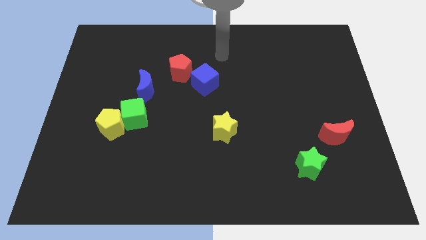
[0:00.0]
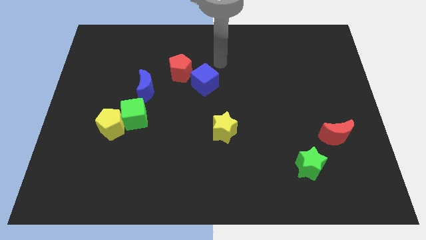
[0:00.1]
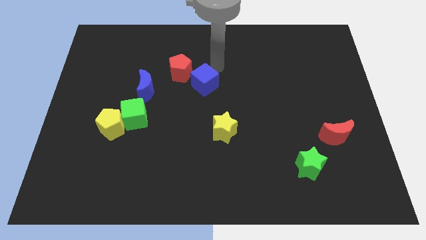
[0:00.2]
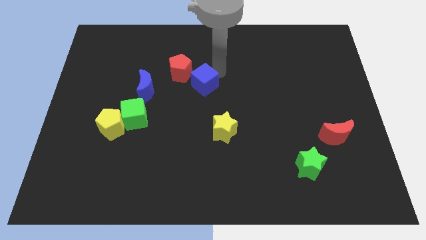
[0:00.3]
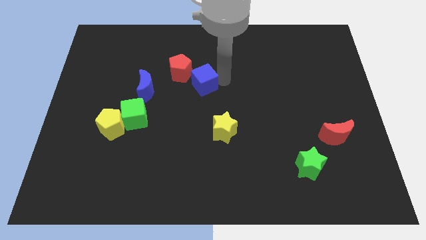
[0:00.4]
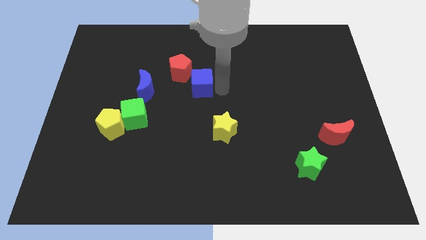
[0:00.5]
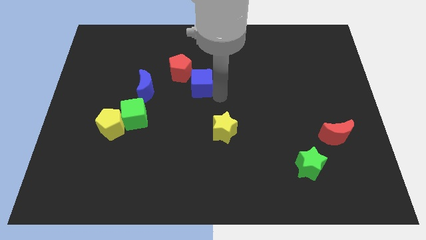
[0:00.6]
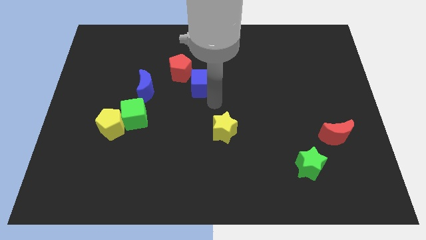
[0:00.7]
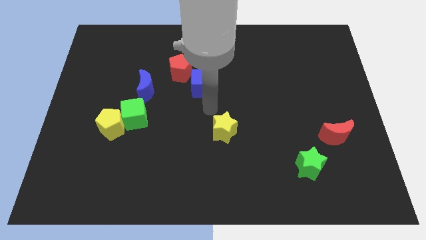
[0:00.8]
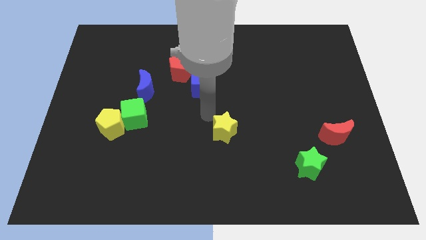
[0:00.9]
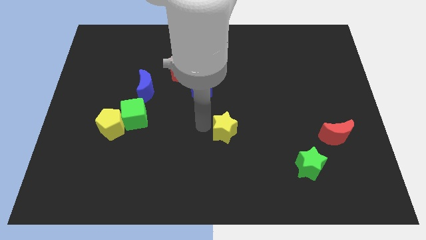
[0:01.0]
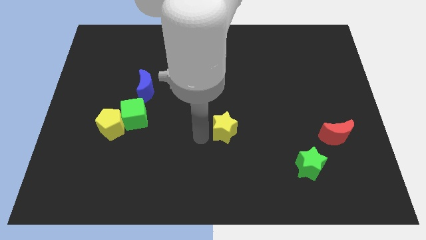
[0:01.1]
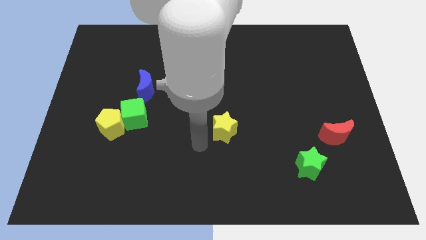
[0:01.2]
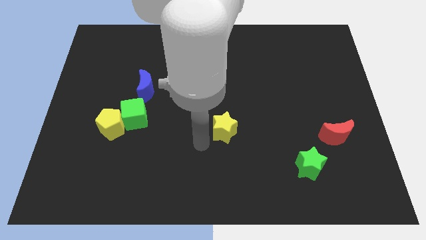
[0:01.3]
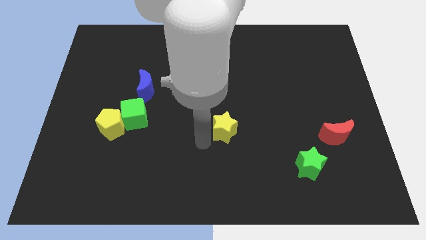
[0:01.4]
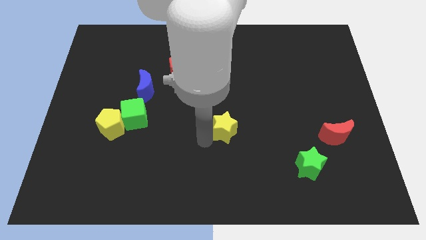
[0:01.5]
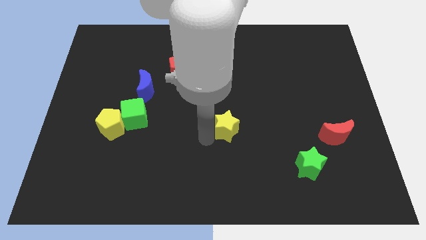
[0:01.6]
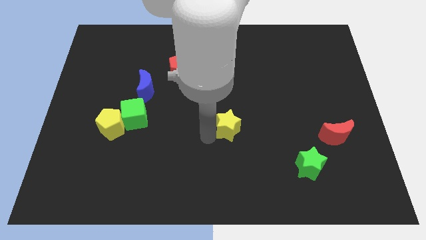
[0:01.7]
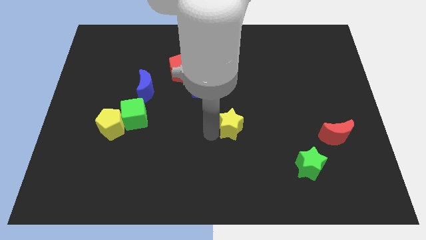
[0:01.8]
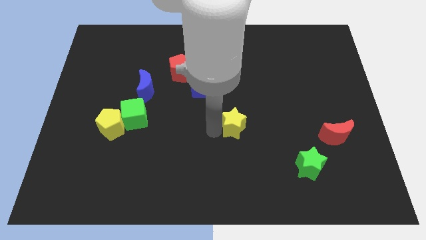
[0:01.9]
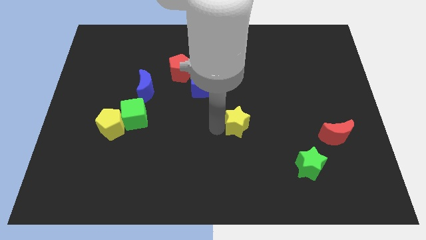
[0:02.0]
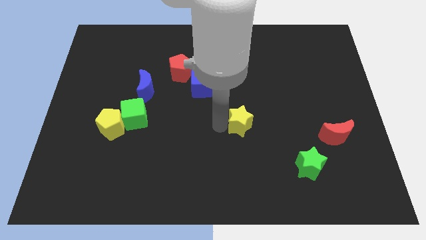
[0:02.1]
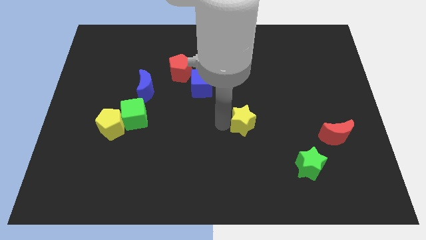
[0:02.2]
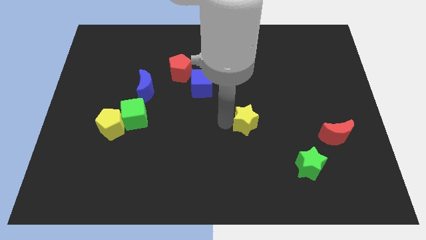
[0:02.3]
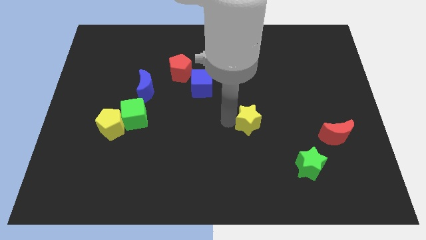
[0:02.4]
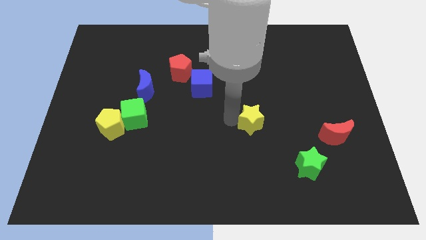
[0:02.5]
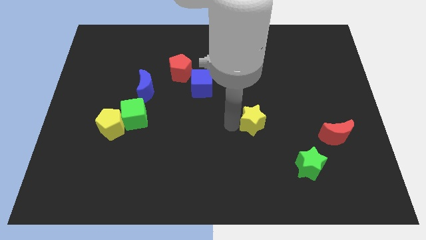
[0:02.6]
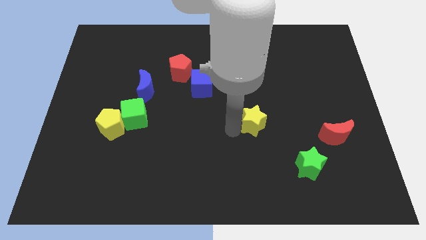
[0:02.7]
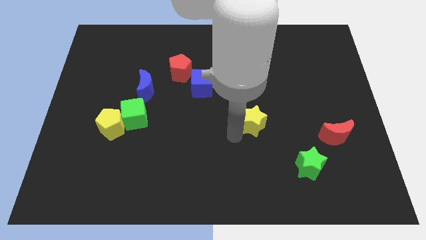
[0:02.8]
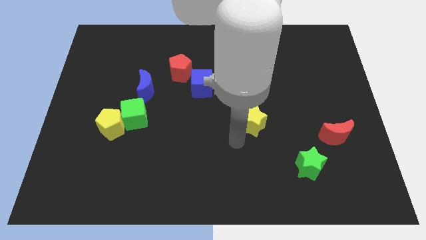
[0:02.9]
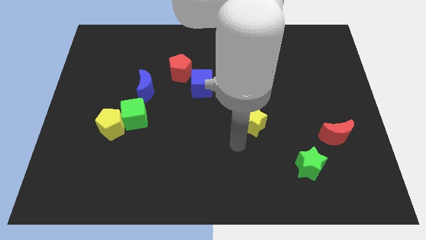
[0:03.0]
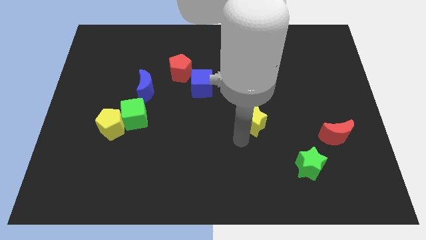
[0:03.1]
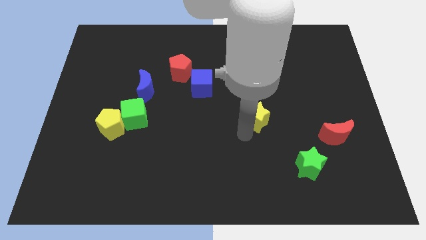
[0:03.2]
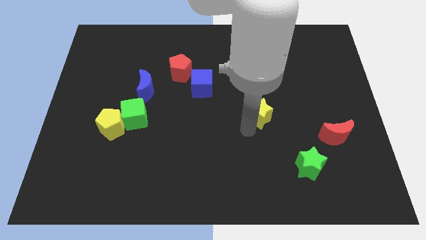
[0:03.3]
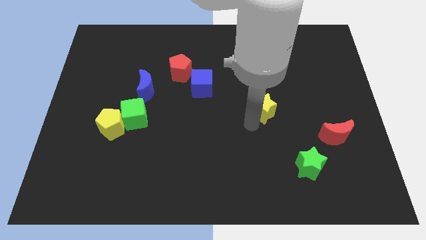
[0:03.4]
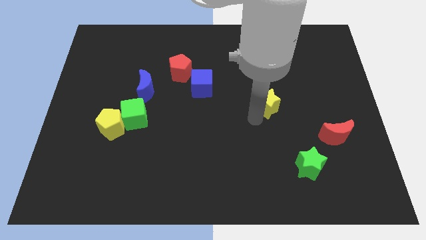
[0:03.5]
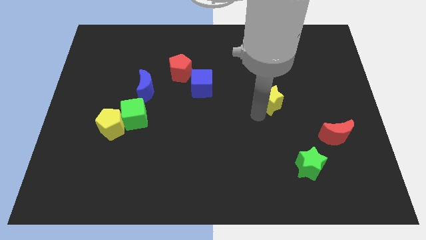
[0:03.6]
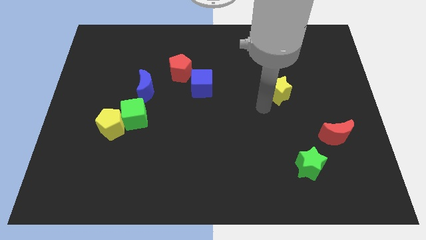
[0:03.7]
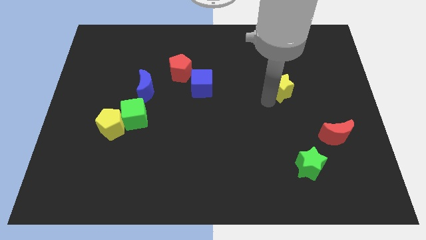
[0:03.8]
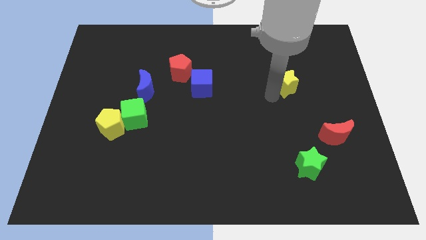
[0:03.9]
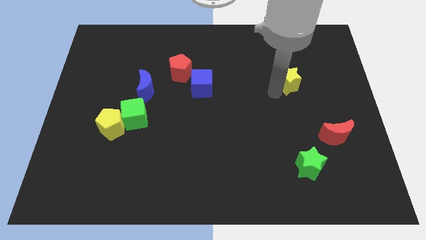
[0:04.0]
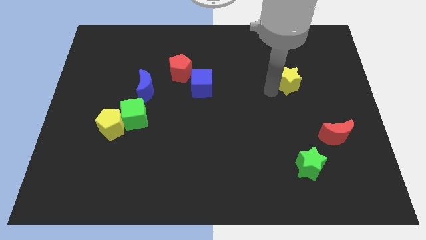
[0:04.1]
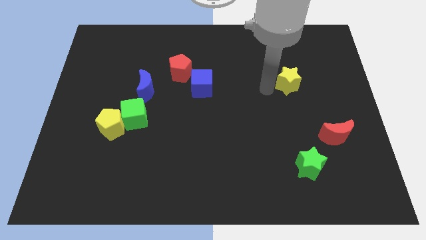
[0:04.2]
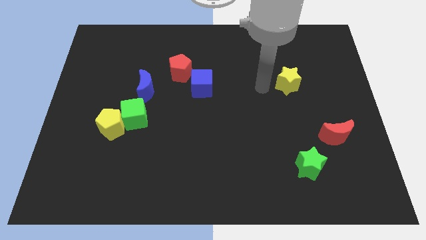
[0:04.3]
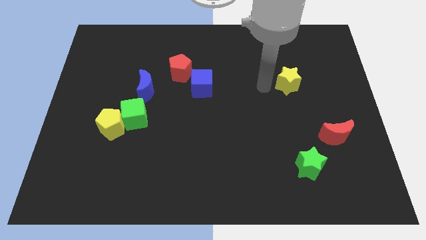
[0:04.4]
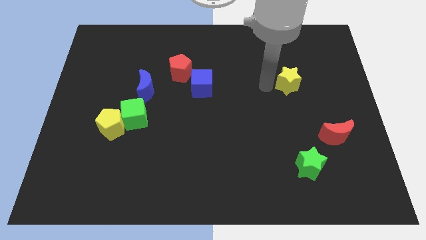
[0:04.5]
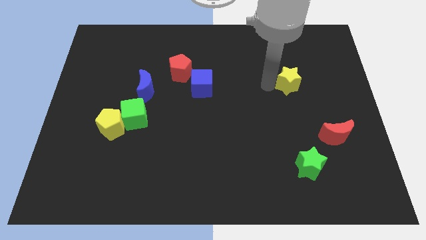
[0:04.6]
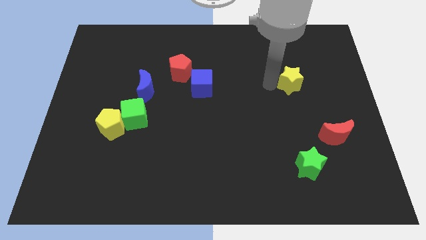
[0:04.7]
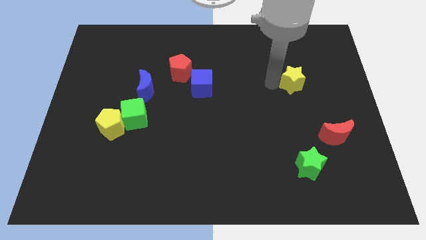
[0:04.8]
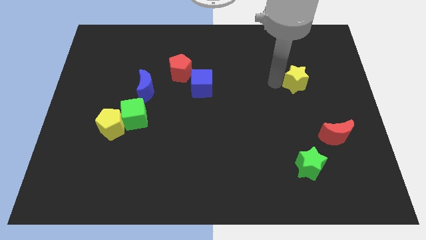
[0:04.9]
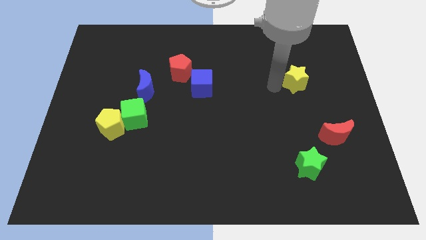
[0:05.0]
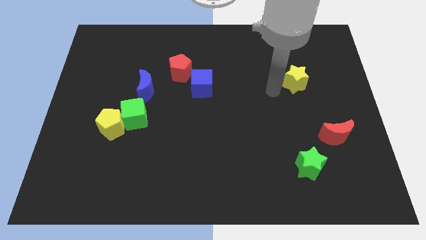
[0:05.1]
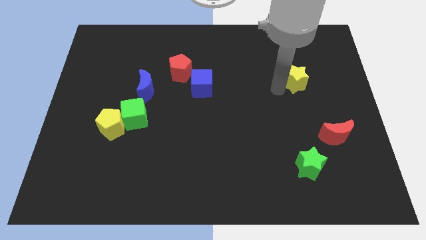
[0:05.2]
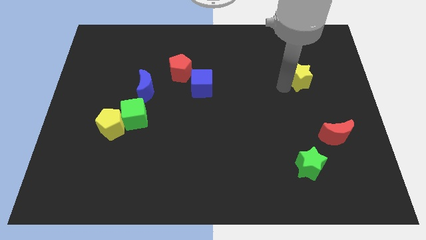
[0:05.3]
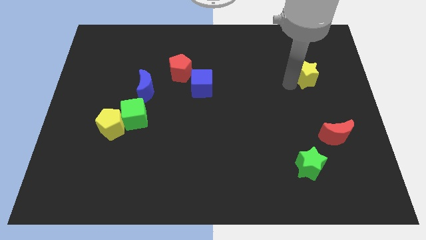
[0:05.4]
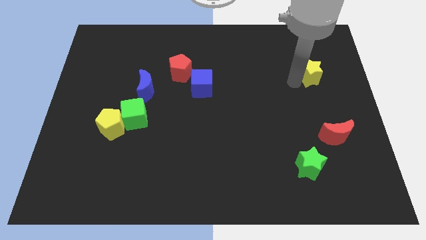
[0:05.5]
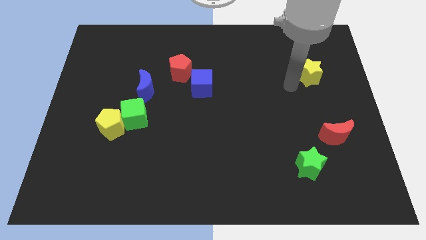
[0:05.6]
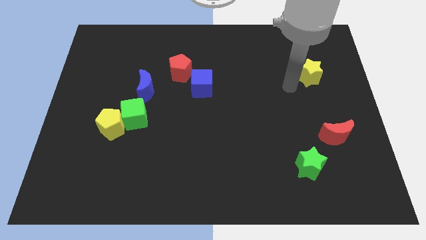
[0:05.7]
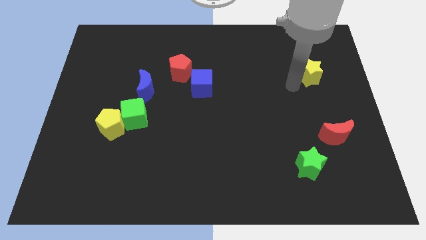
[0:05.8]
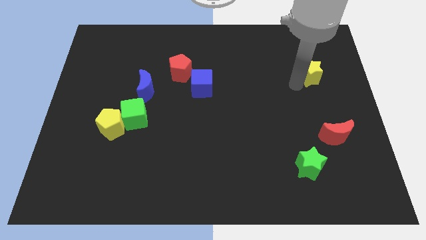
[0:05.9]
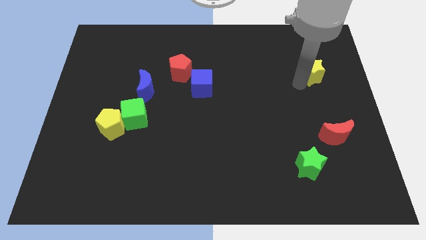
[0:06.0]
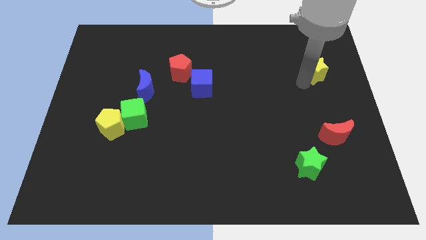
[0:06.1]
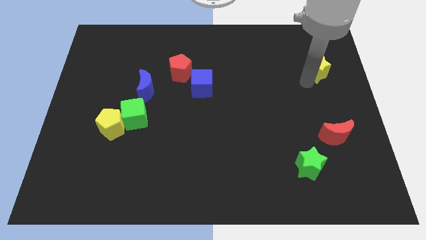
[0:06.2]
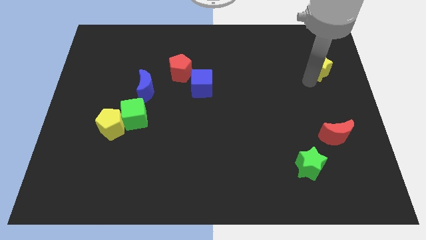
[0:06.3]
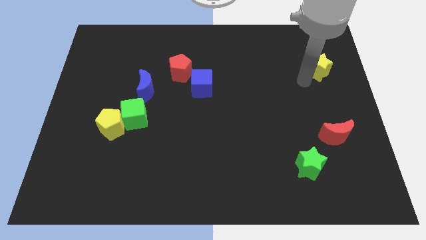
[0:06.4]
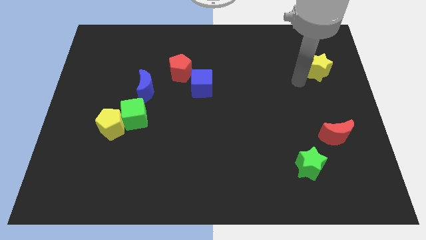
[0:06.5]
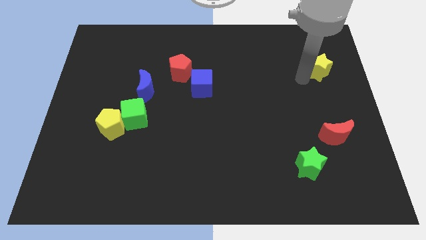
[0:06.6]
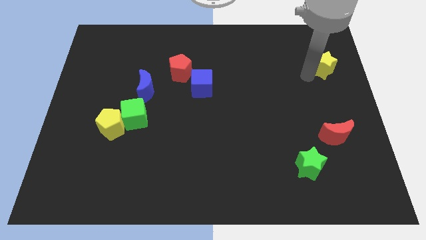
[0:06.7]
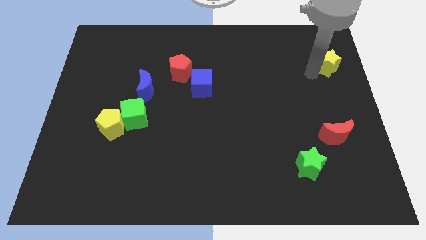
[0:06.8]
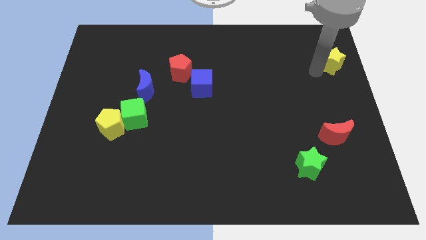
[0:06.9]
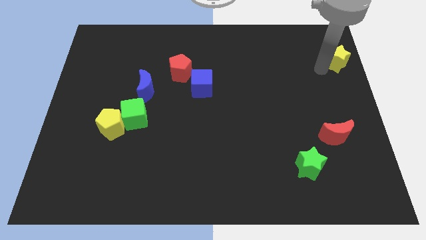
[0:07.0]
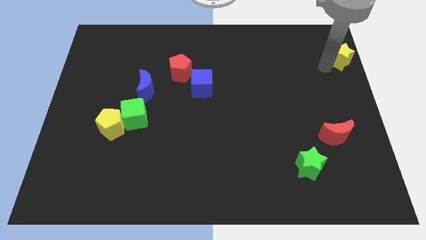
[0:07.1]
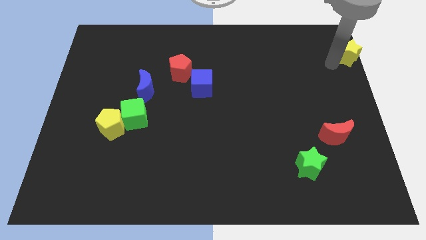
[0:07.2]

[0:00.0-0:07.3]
put the yellow star to the upper right corner
